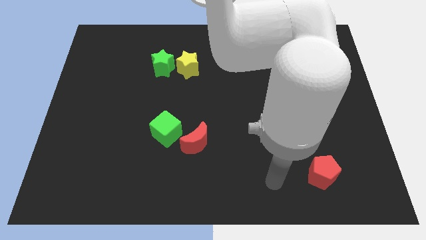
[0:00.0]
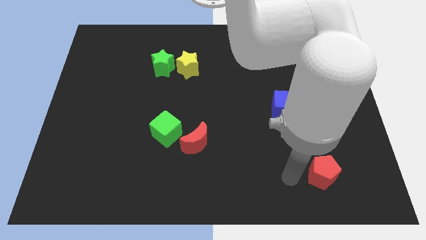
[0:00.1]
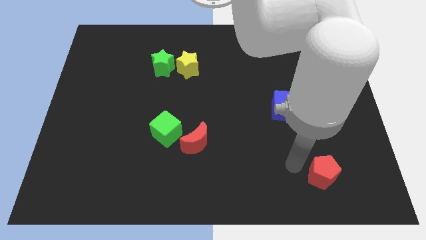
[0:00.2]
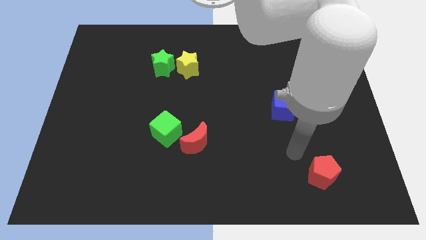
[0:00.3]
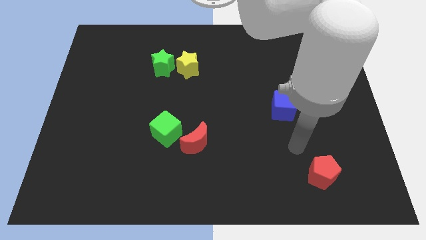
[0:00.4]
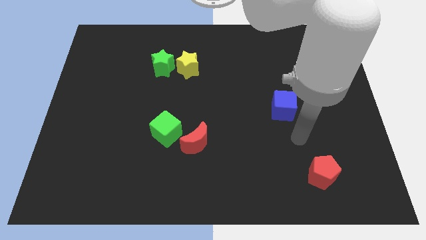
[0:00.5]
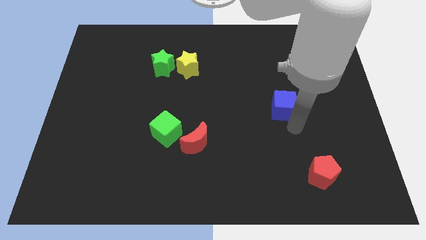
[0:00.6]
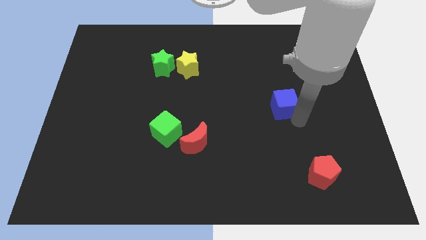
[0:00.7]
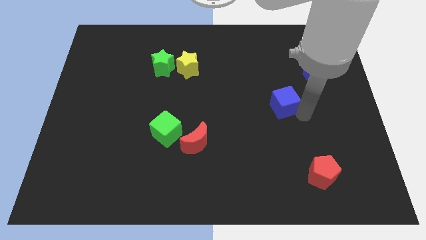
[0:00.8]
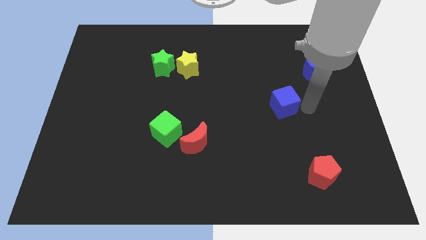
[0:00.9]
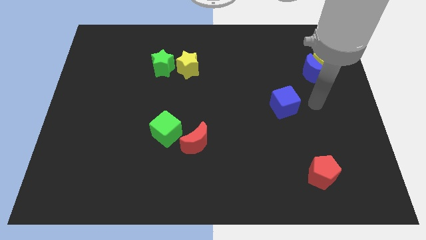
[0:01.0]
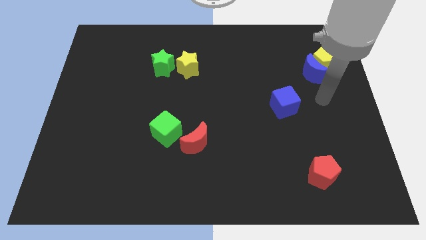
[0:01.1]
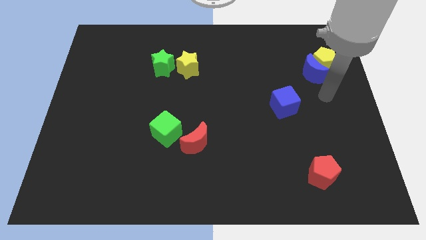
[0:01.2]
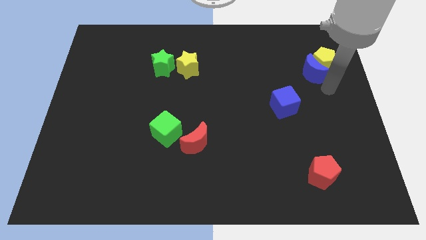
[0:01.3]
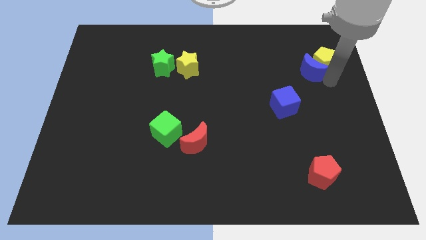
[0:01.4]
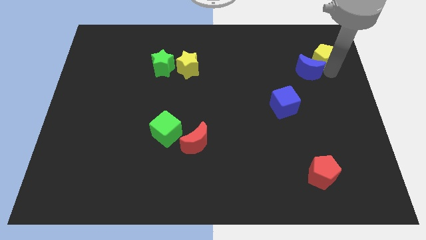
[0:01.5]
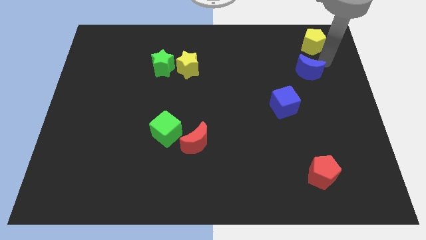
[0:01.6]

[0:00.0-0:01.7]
pull the blue moon apart from the yellow pentagon

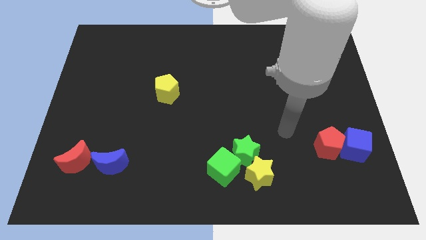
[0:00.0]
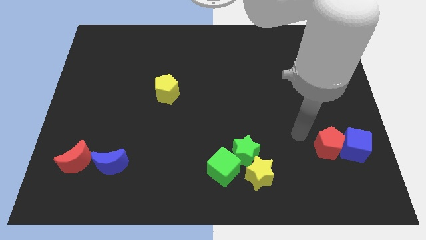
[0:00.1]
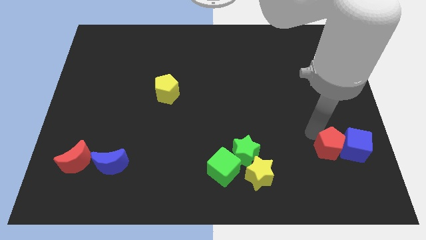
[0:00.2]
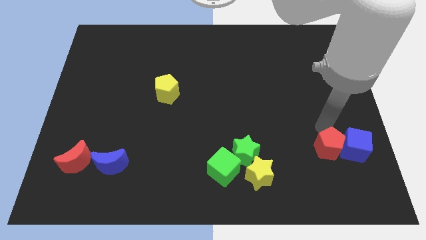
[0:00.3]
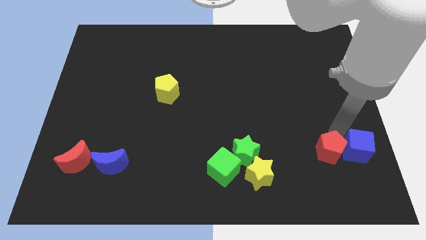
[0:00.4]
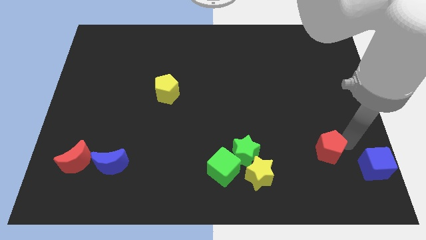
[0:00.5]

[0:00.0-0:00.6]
pull the red pentagon apart from the blue cube

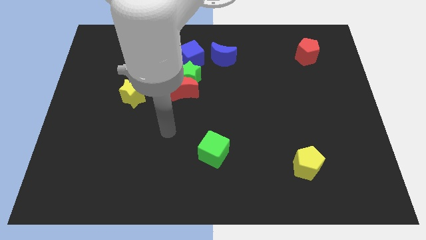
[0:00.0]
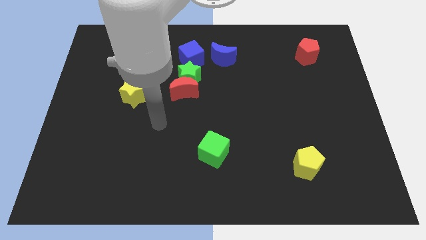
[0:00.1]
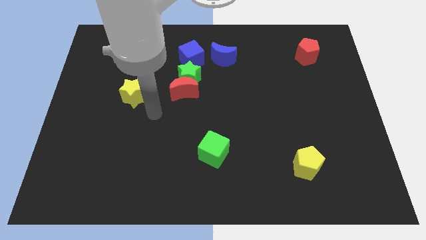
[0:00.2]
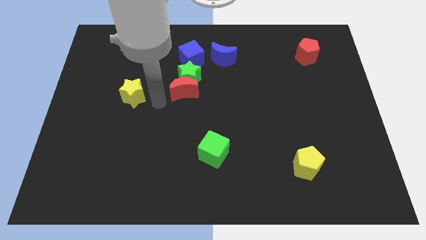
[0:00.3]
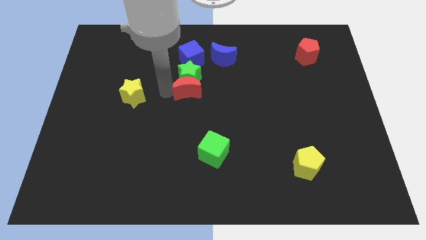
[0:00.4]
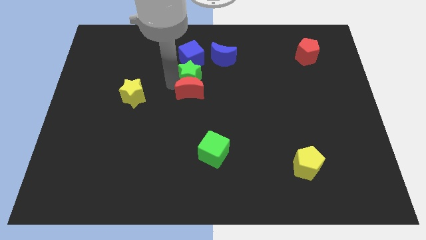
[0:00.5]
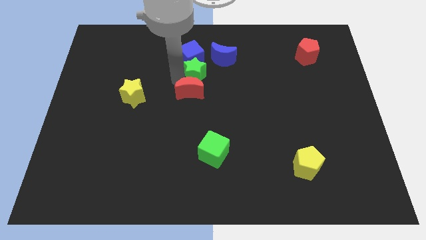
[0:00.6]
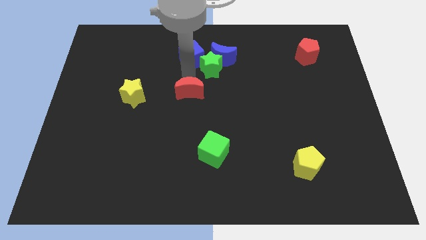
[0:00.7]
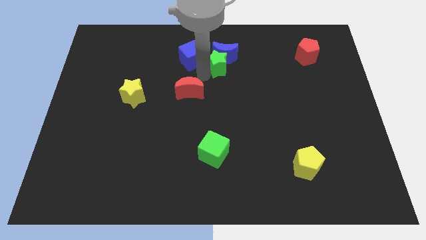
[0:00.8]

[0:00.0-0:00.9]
pull the red moon apart from the green star

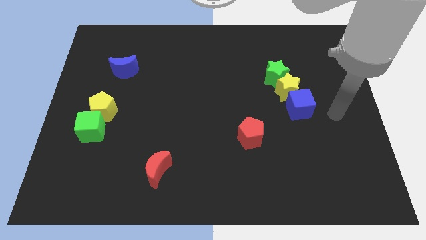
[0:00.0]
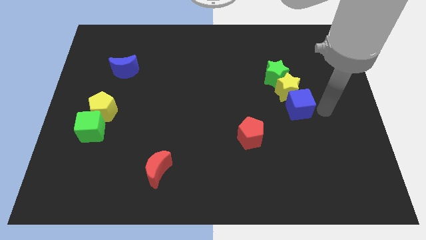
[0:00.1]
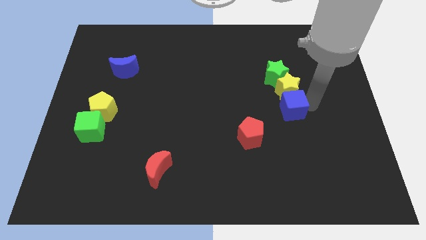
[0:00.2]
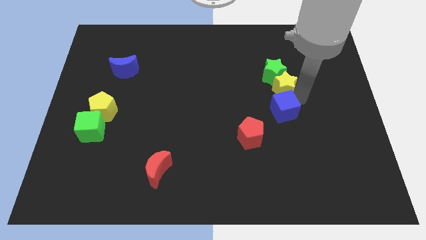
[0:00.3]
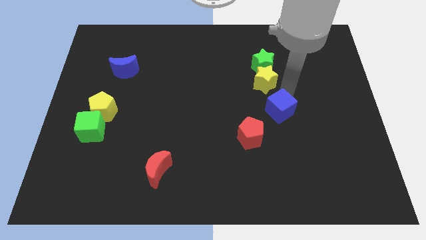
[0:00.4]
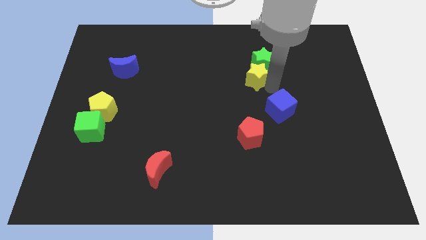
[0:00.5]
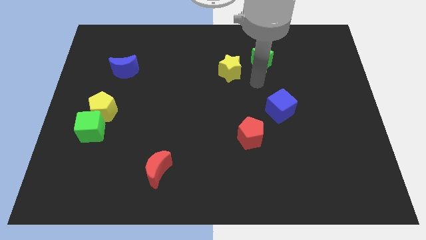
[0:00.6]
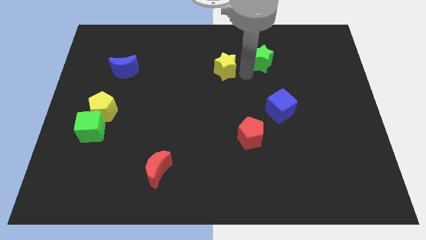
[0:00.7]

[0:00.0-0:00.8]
separate the green star from the yellow star

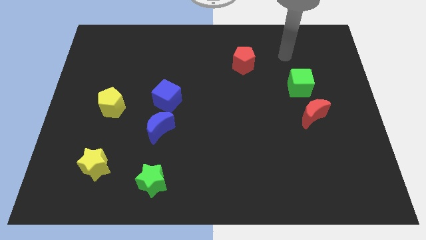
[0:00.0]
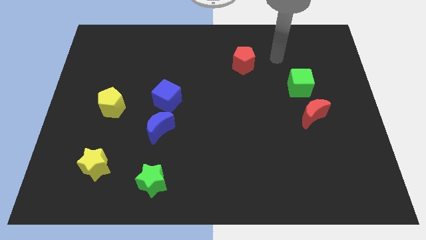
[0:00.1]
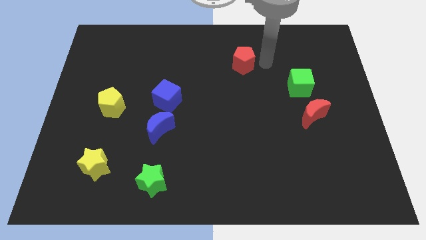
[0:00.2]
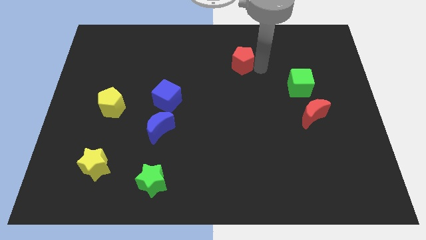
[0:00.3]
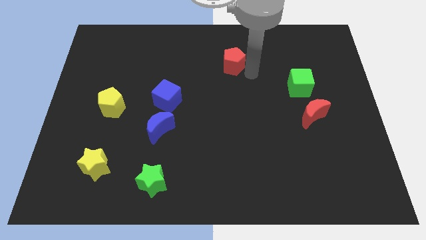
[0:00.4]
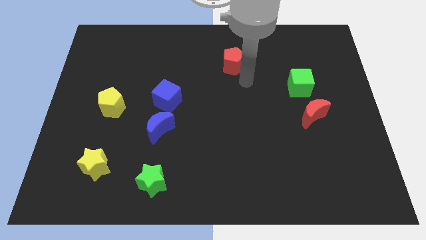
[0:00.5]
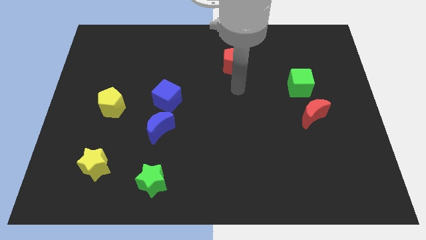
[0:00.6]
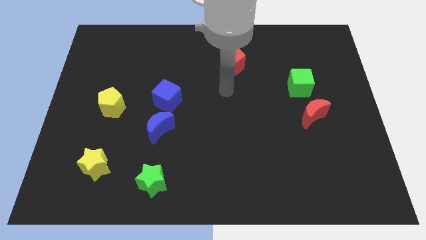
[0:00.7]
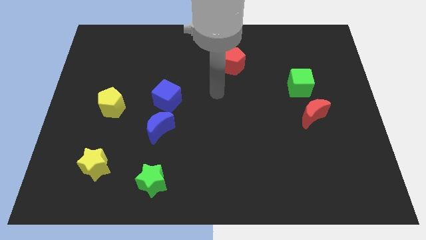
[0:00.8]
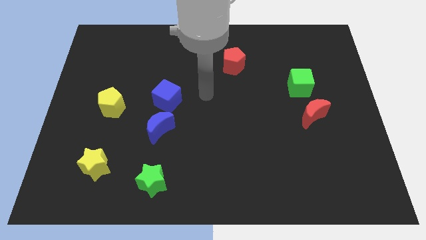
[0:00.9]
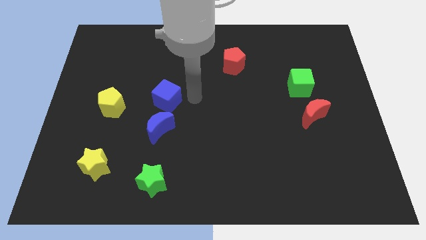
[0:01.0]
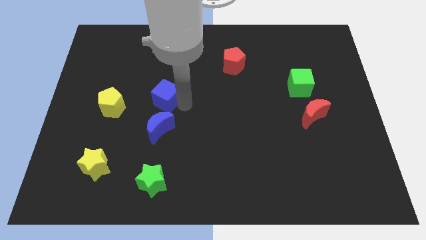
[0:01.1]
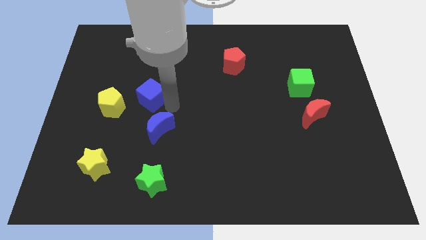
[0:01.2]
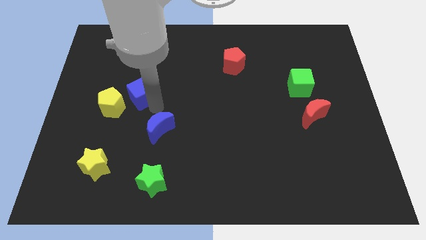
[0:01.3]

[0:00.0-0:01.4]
pull the blue moon apart from the blue cube

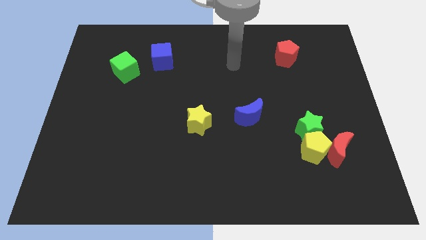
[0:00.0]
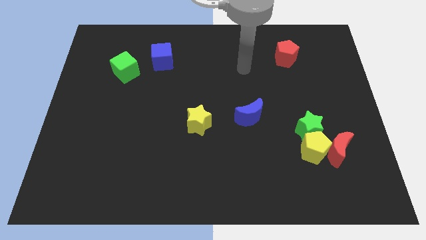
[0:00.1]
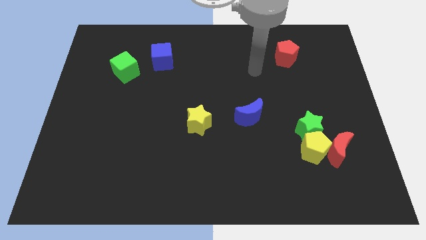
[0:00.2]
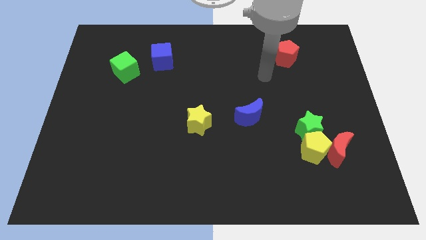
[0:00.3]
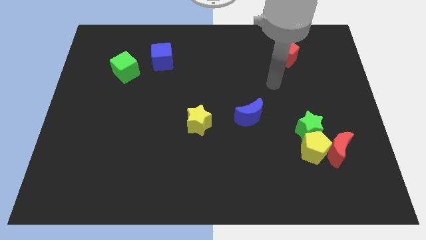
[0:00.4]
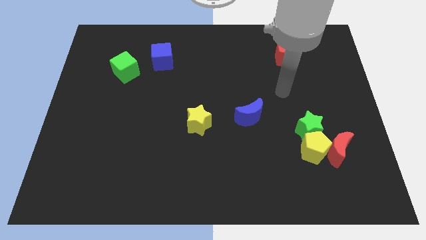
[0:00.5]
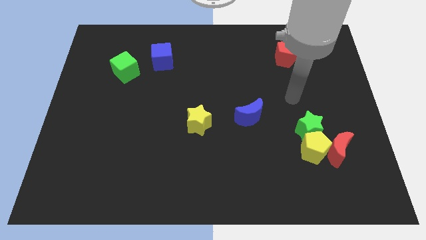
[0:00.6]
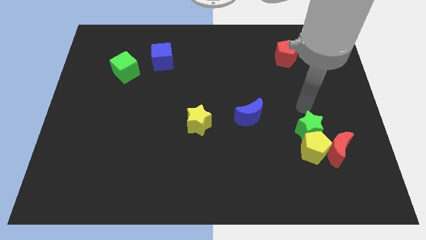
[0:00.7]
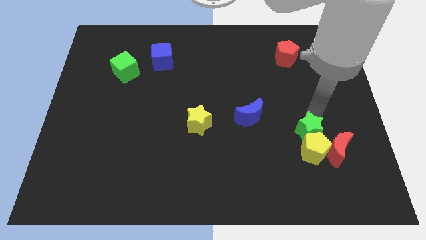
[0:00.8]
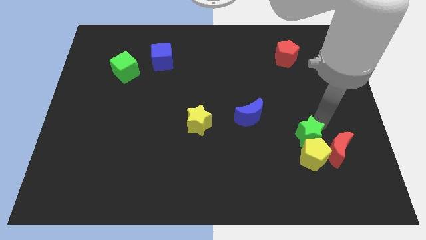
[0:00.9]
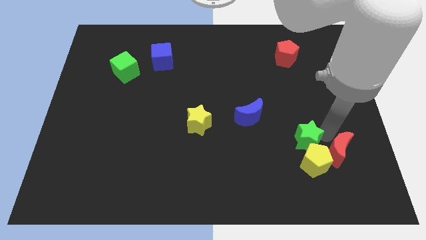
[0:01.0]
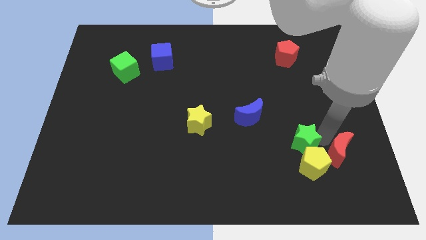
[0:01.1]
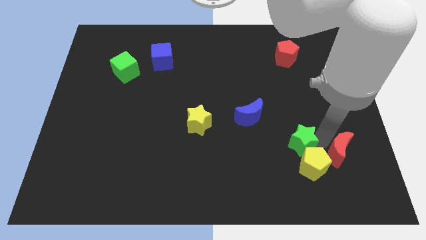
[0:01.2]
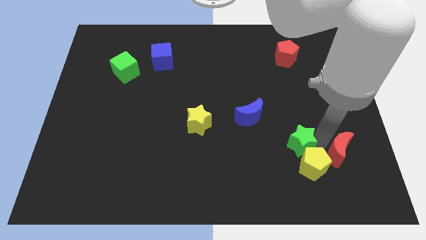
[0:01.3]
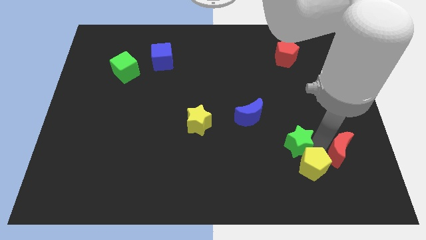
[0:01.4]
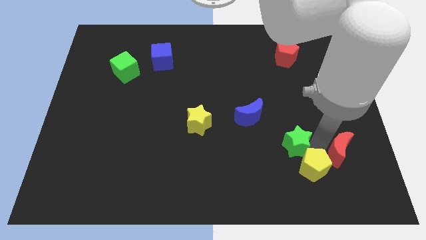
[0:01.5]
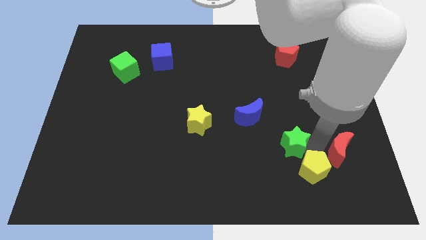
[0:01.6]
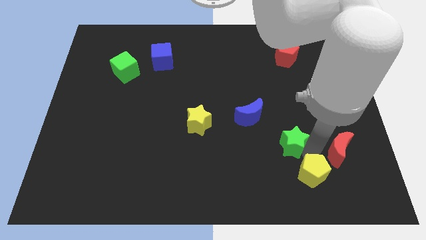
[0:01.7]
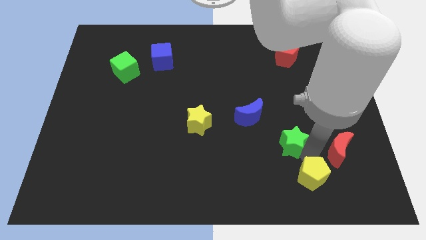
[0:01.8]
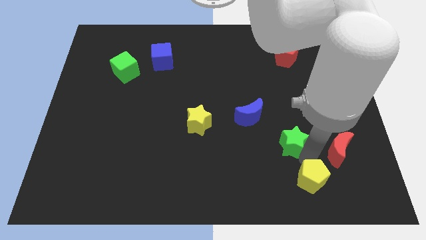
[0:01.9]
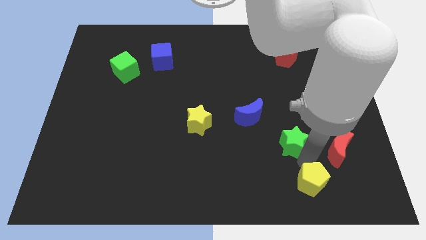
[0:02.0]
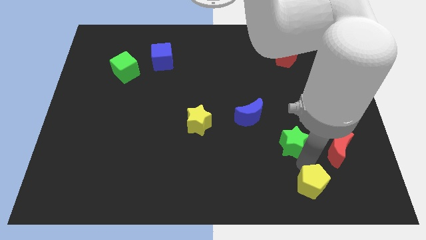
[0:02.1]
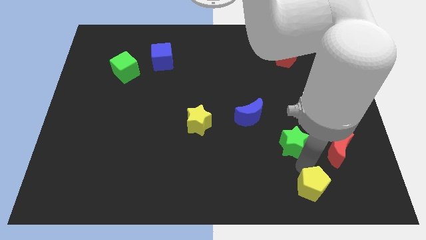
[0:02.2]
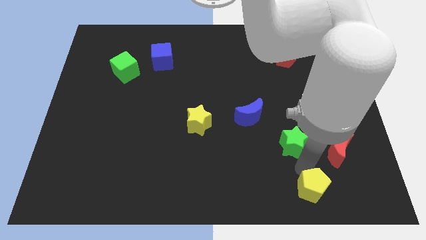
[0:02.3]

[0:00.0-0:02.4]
pull the yellow pentagon apart from the red moon and green star

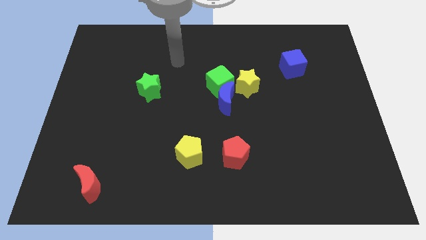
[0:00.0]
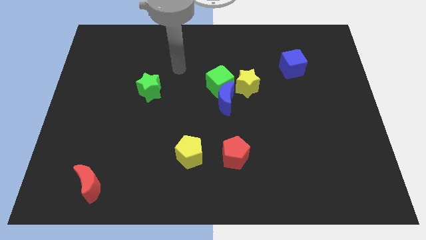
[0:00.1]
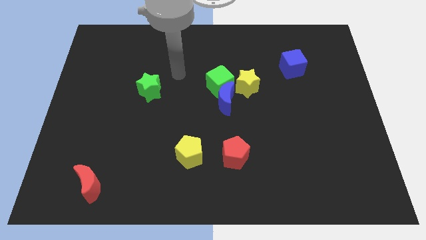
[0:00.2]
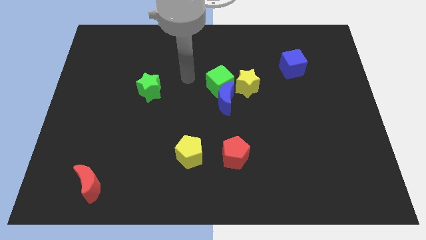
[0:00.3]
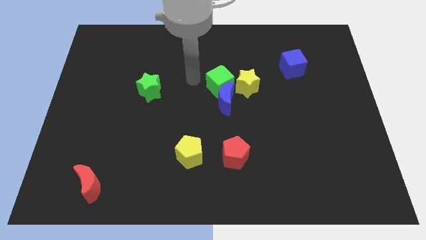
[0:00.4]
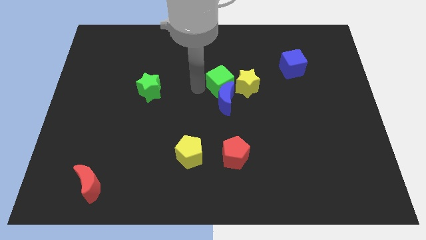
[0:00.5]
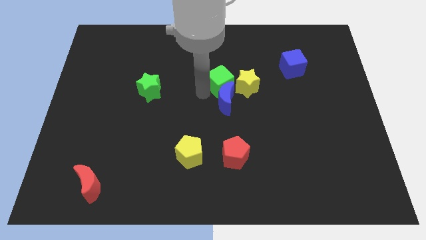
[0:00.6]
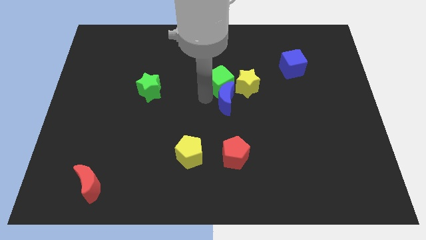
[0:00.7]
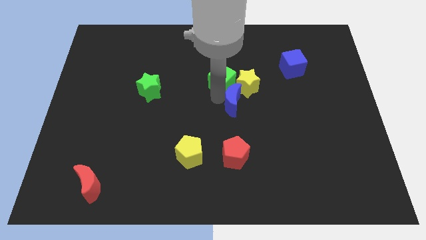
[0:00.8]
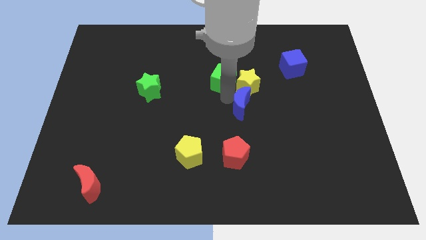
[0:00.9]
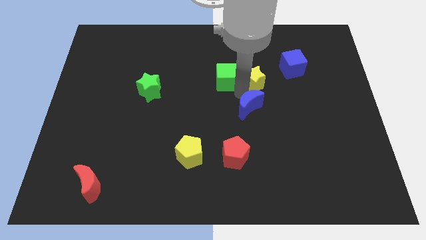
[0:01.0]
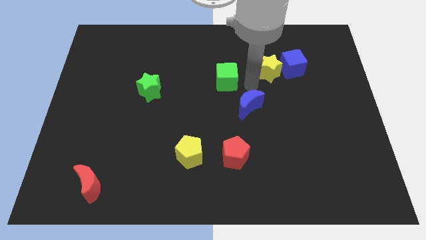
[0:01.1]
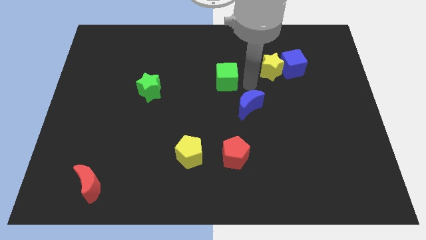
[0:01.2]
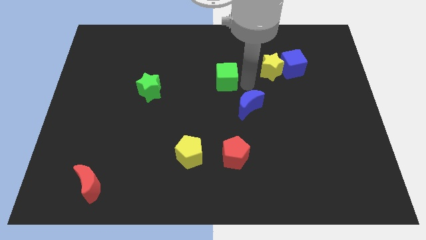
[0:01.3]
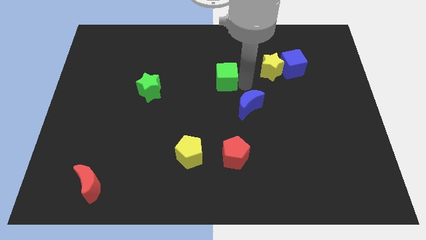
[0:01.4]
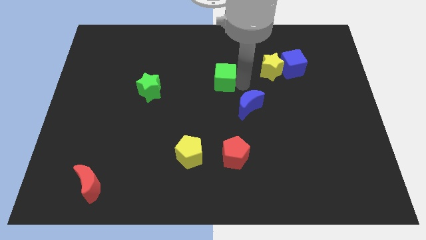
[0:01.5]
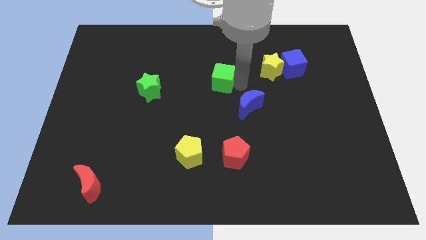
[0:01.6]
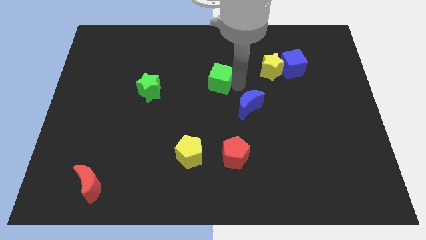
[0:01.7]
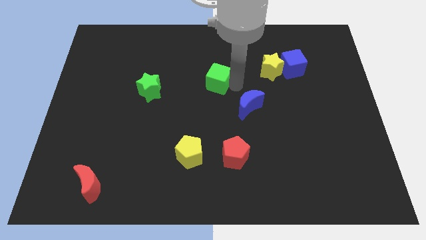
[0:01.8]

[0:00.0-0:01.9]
pull the green cube apart from the blue moon and yellow star
